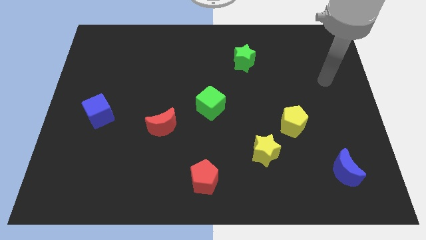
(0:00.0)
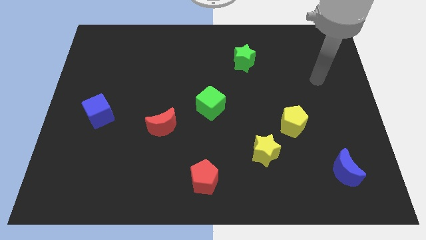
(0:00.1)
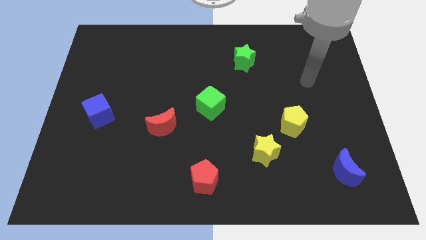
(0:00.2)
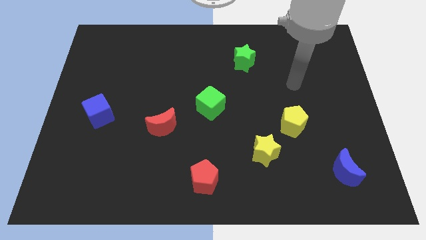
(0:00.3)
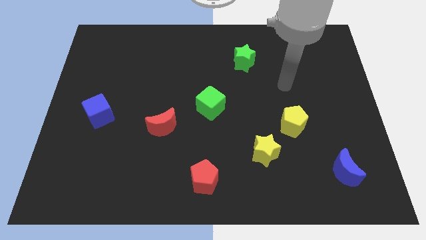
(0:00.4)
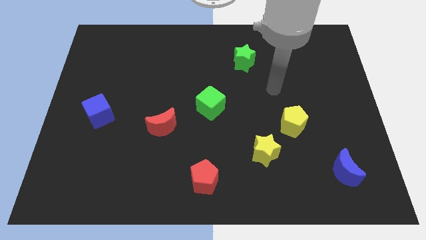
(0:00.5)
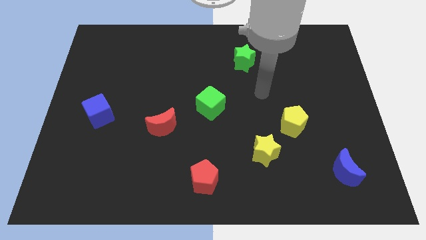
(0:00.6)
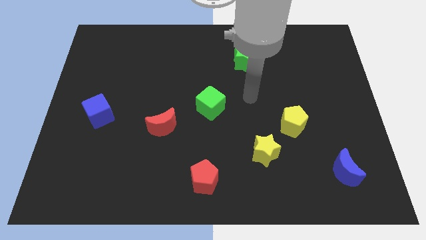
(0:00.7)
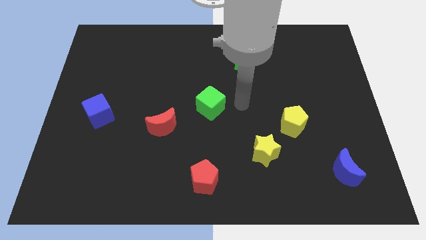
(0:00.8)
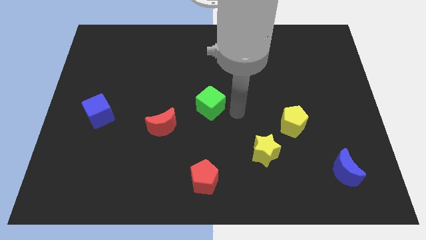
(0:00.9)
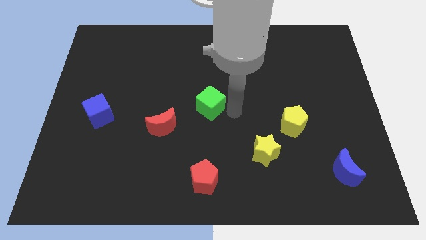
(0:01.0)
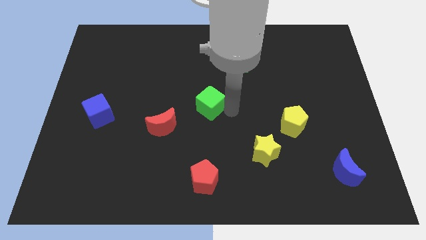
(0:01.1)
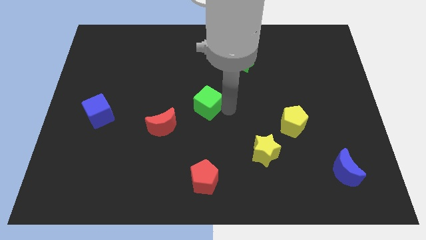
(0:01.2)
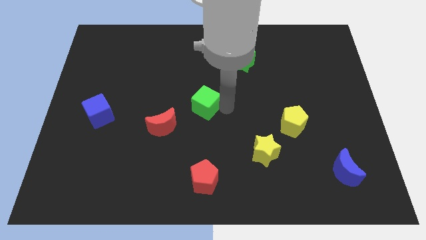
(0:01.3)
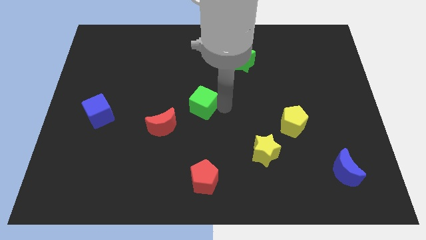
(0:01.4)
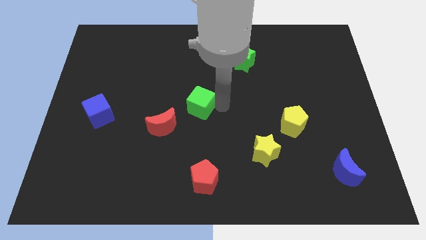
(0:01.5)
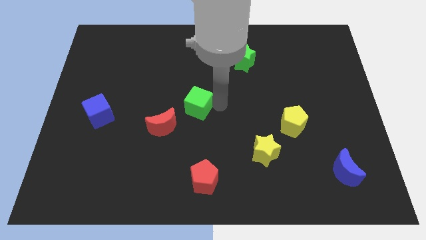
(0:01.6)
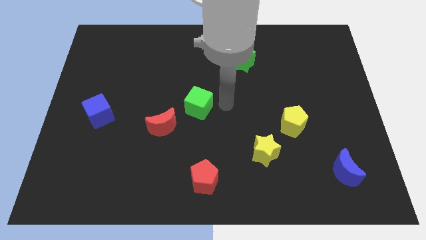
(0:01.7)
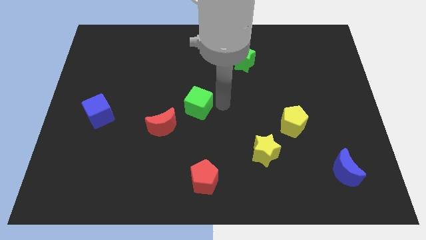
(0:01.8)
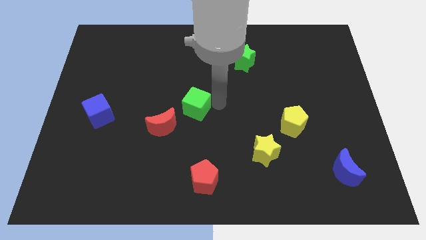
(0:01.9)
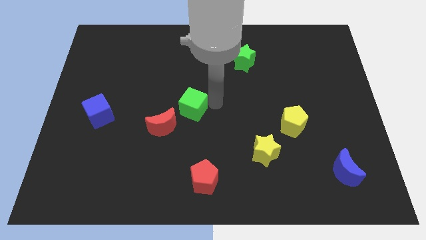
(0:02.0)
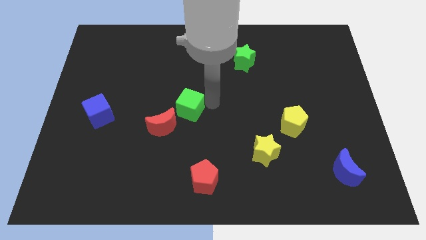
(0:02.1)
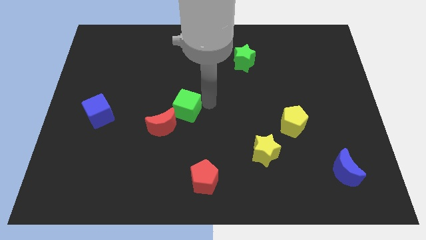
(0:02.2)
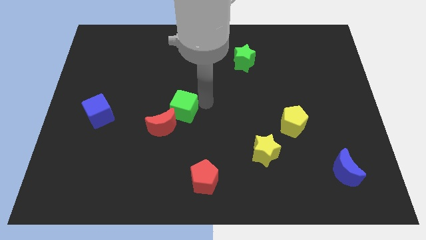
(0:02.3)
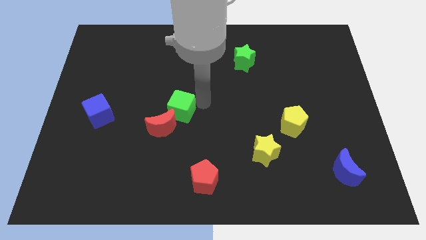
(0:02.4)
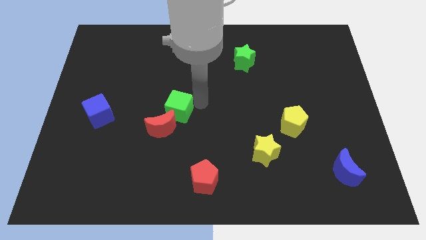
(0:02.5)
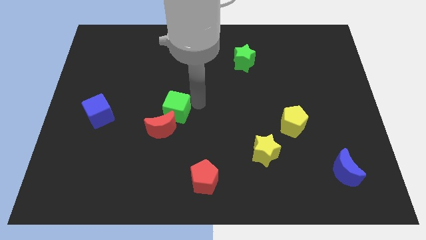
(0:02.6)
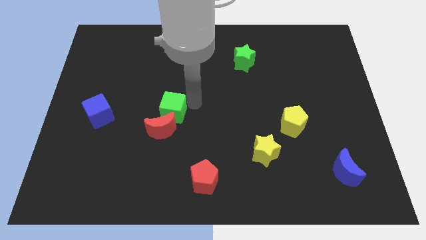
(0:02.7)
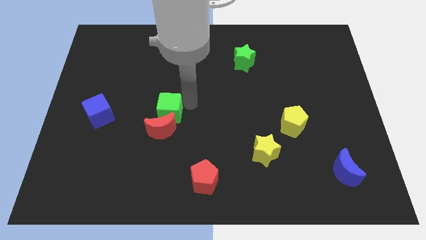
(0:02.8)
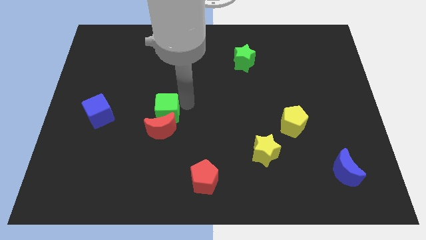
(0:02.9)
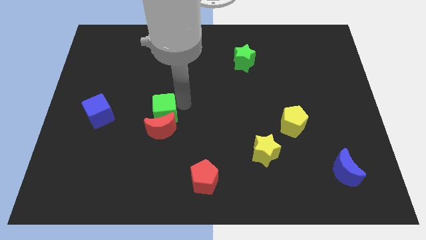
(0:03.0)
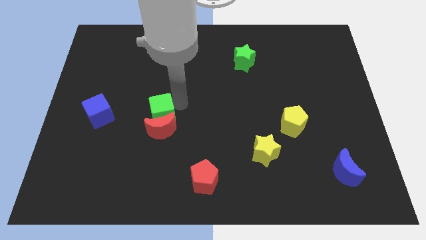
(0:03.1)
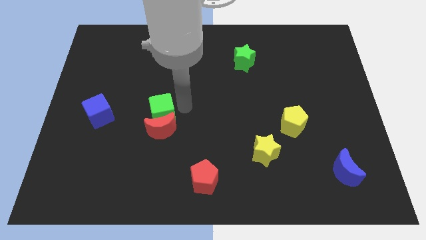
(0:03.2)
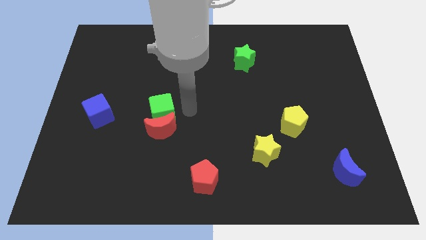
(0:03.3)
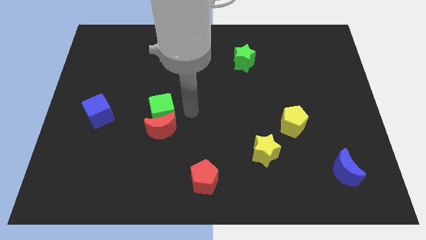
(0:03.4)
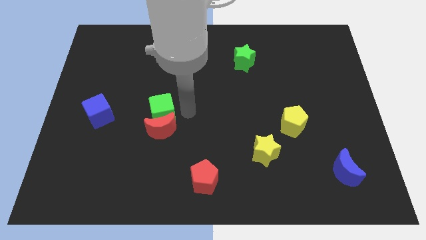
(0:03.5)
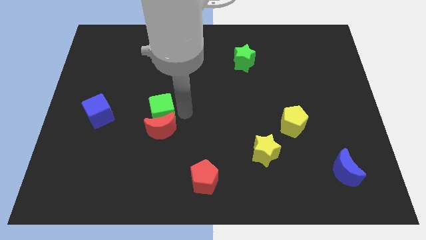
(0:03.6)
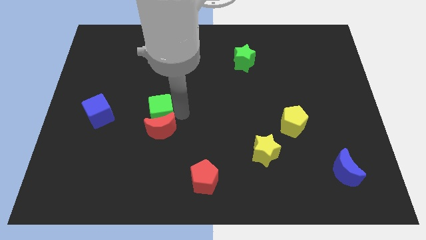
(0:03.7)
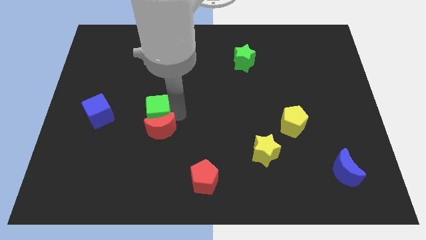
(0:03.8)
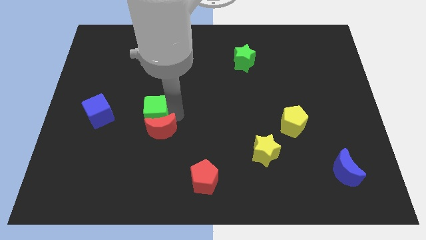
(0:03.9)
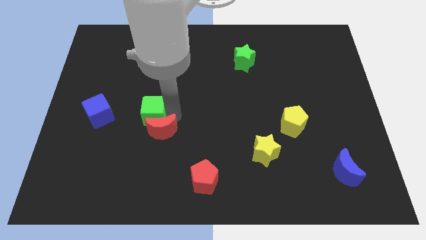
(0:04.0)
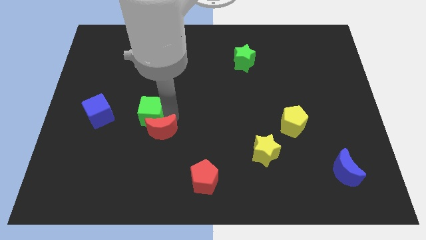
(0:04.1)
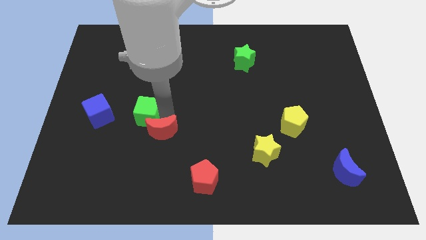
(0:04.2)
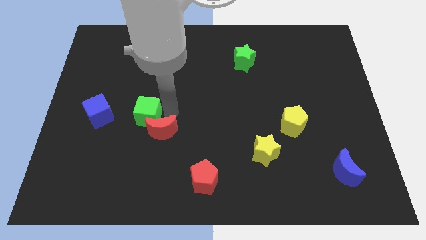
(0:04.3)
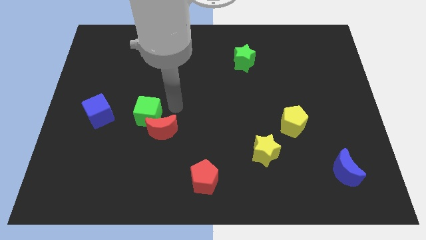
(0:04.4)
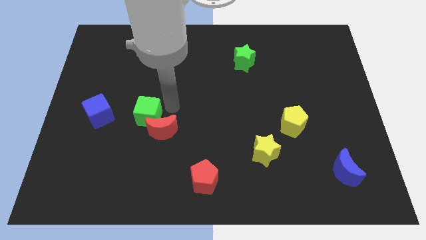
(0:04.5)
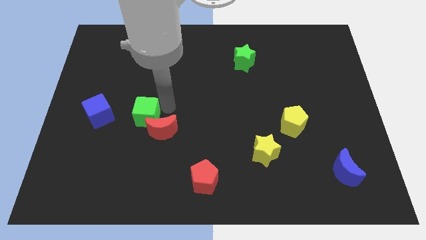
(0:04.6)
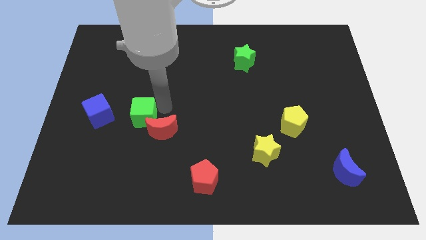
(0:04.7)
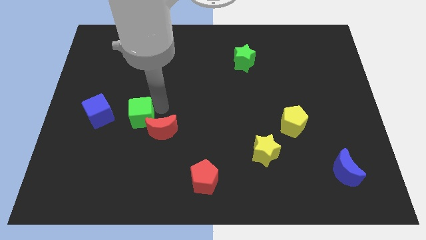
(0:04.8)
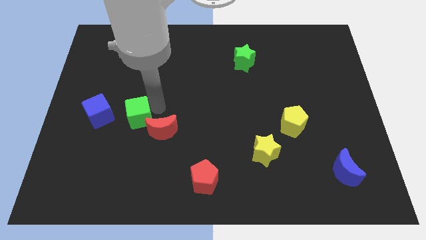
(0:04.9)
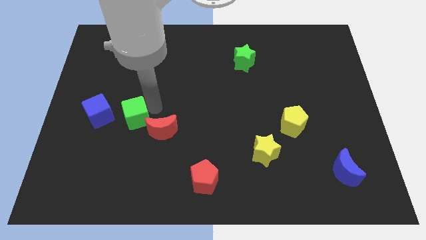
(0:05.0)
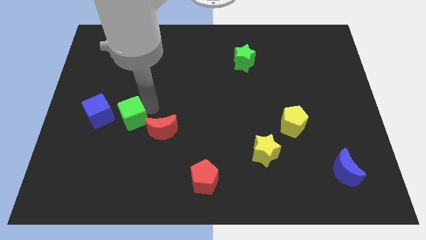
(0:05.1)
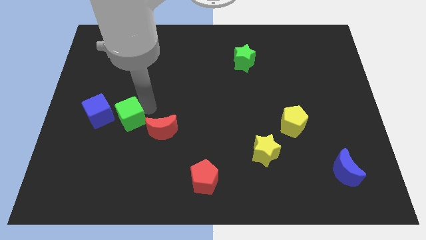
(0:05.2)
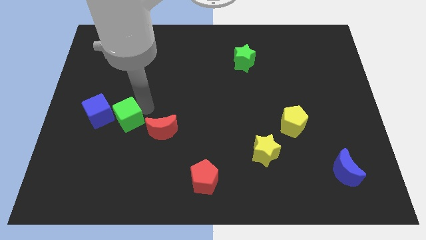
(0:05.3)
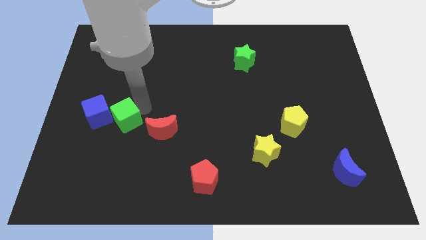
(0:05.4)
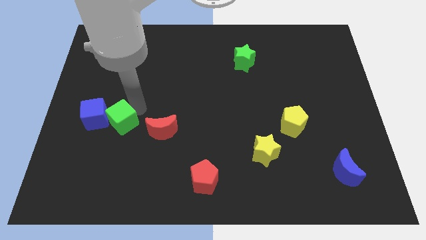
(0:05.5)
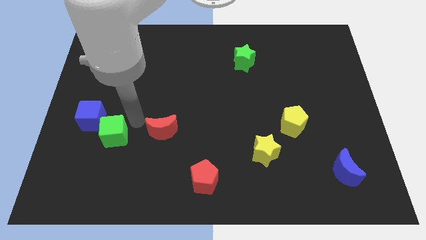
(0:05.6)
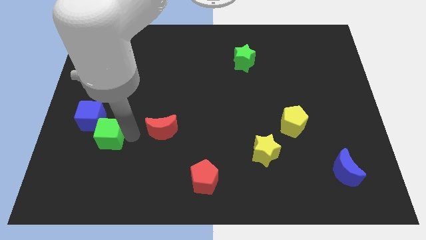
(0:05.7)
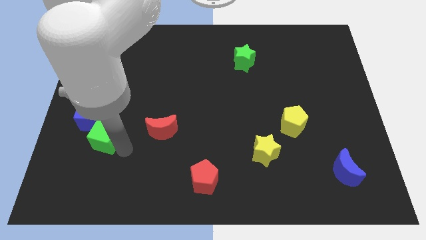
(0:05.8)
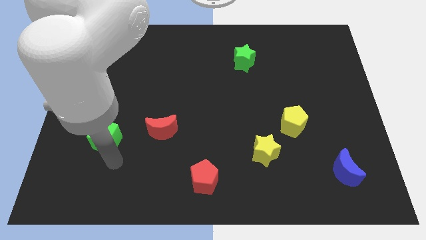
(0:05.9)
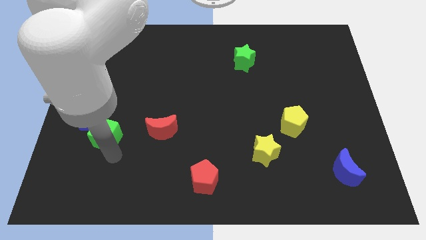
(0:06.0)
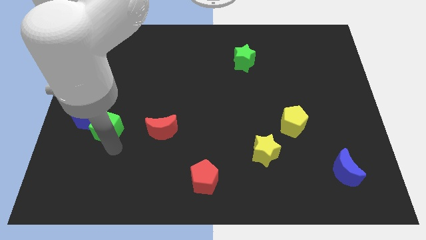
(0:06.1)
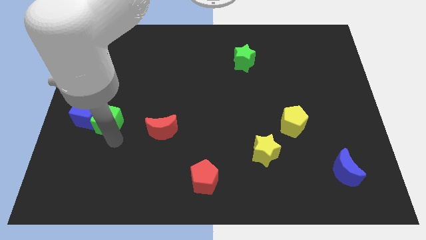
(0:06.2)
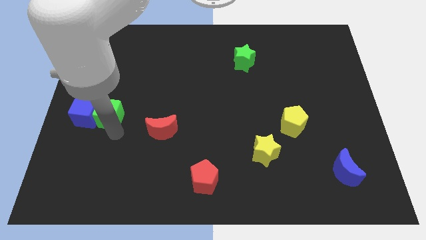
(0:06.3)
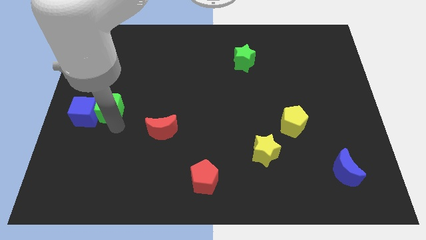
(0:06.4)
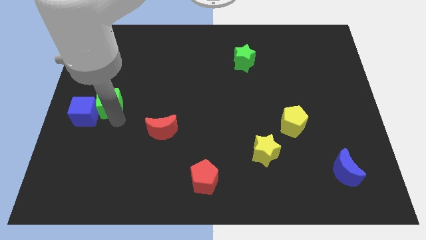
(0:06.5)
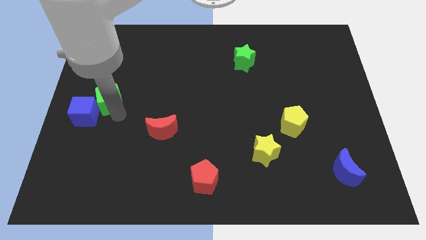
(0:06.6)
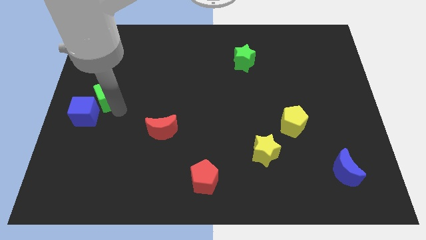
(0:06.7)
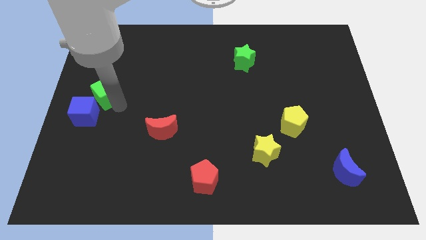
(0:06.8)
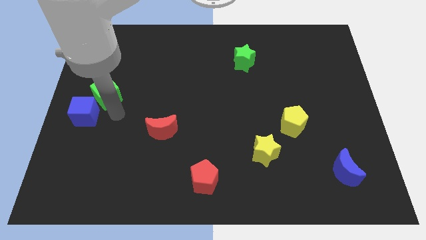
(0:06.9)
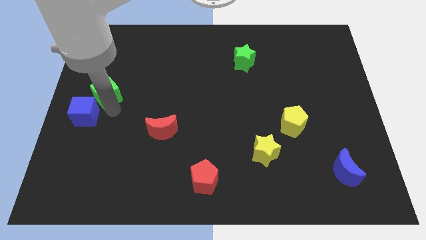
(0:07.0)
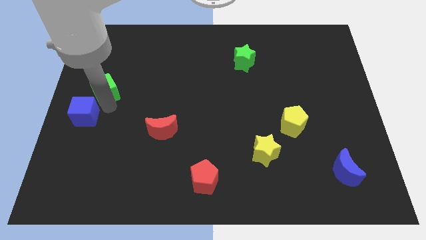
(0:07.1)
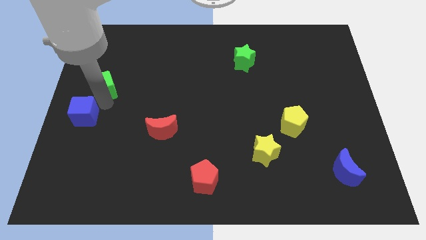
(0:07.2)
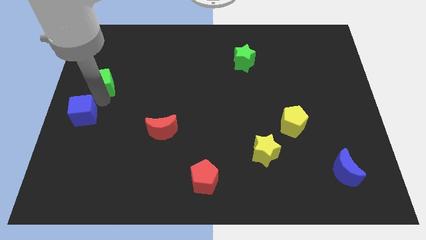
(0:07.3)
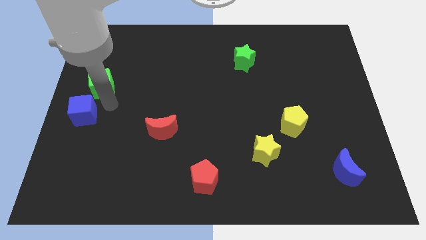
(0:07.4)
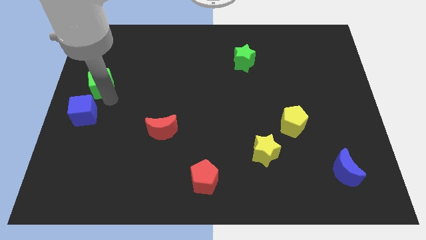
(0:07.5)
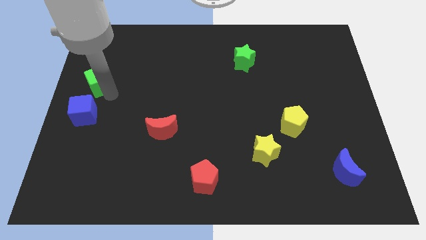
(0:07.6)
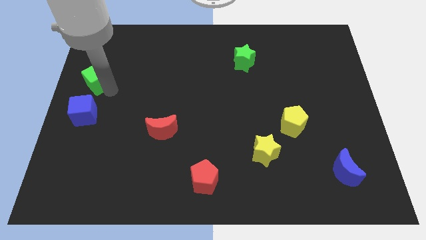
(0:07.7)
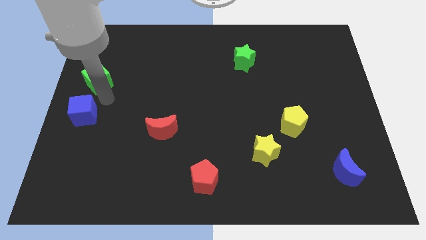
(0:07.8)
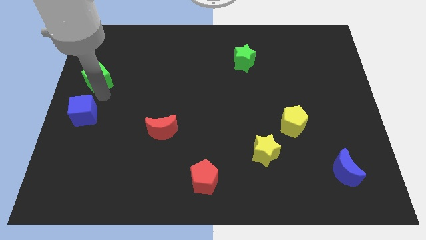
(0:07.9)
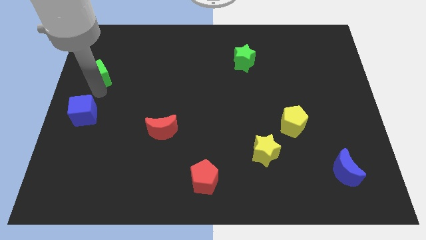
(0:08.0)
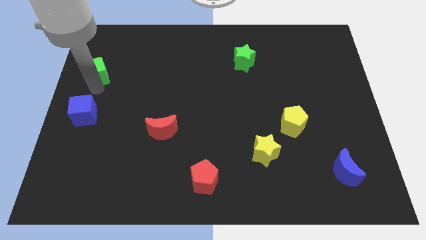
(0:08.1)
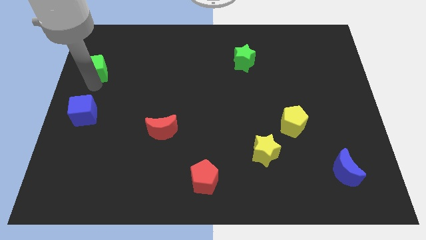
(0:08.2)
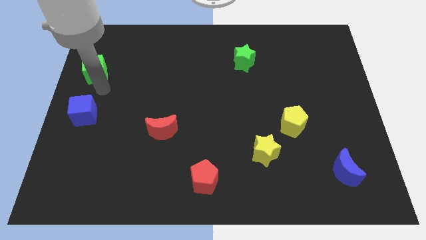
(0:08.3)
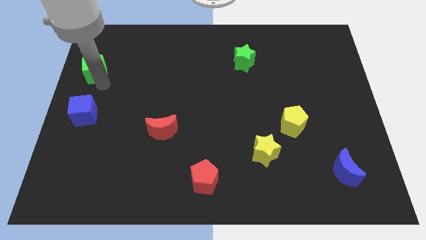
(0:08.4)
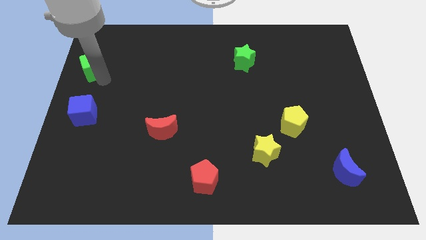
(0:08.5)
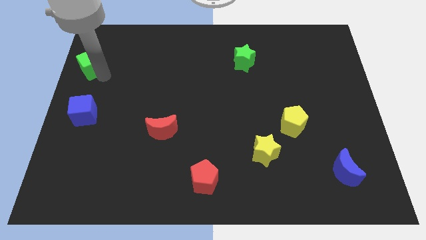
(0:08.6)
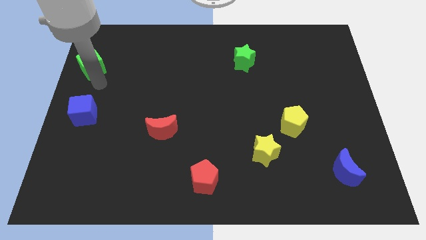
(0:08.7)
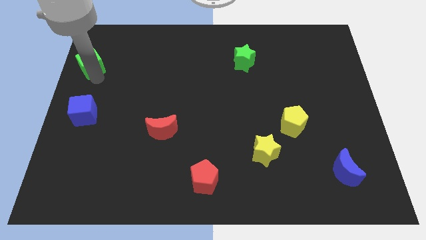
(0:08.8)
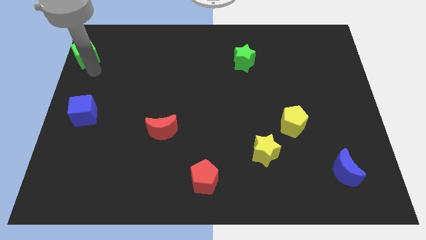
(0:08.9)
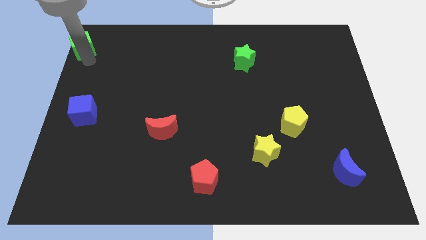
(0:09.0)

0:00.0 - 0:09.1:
push the green cube to the top left of the board
